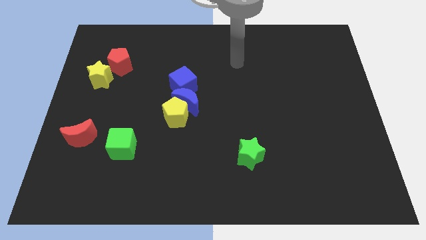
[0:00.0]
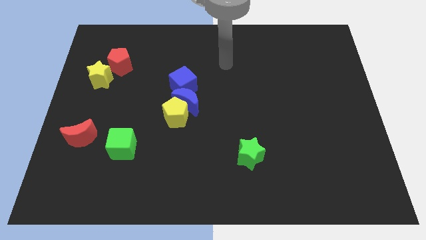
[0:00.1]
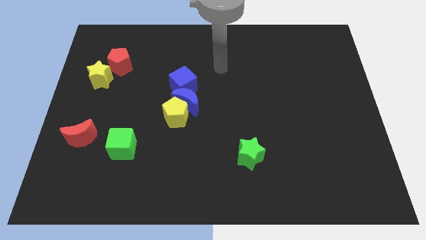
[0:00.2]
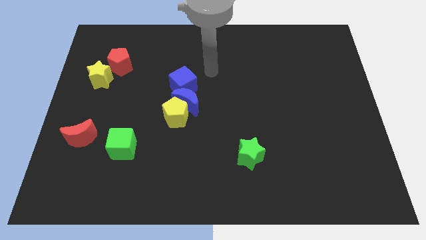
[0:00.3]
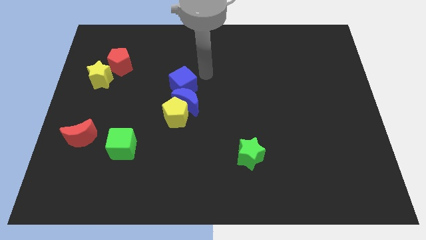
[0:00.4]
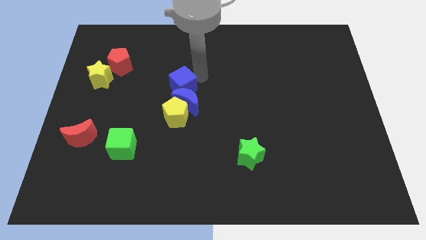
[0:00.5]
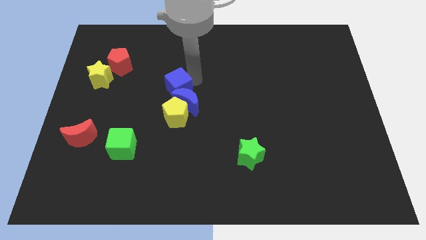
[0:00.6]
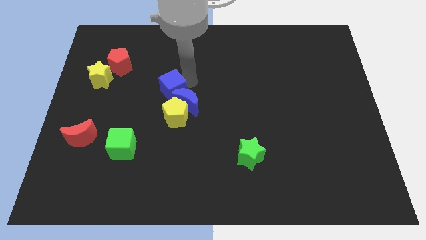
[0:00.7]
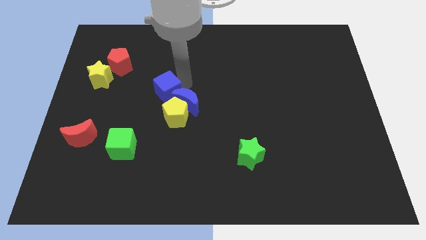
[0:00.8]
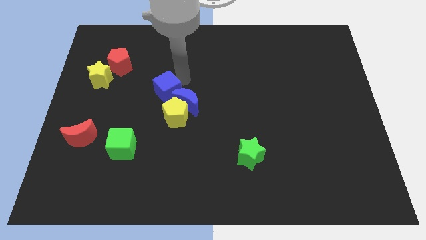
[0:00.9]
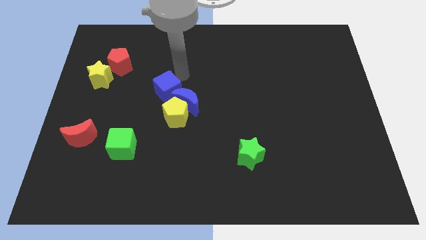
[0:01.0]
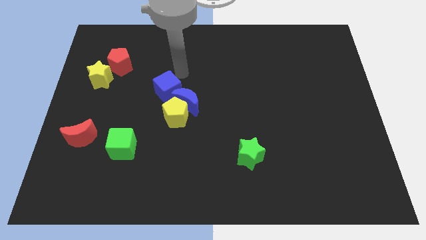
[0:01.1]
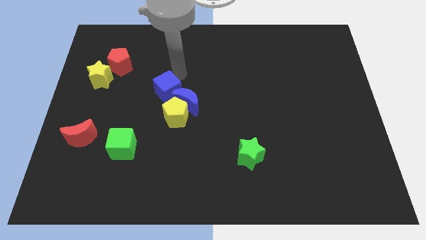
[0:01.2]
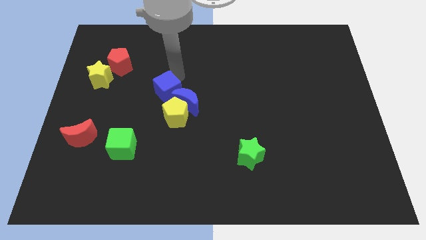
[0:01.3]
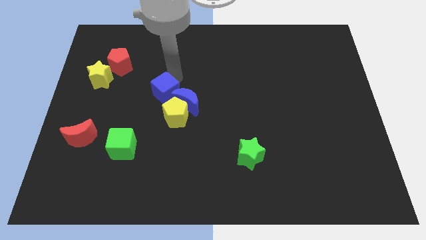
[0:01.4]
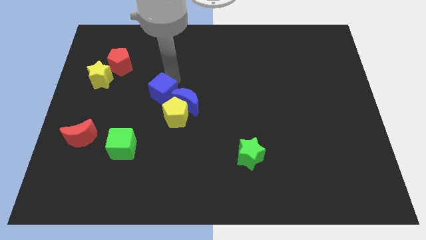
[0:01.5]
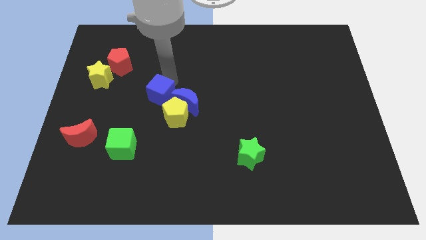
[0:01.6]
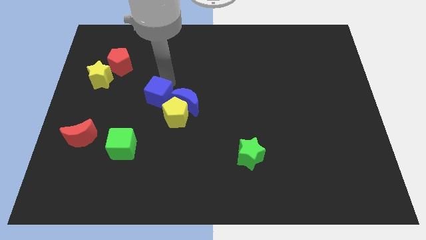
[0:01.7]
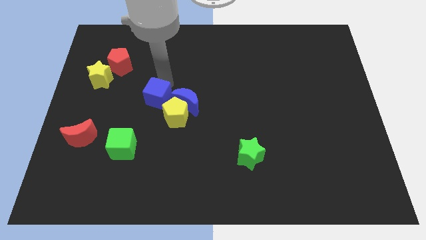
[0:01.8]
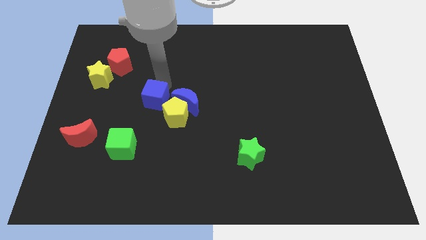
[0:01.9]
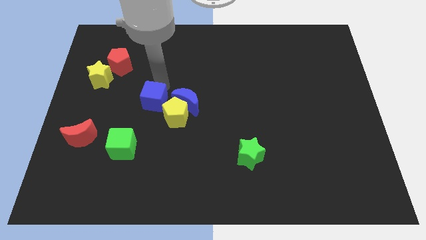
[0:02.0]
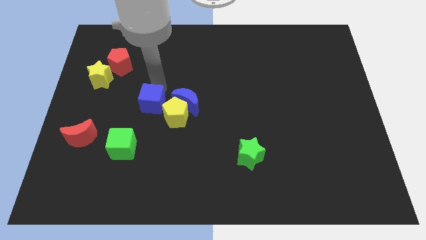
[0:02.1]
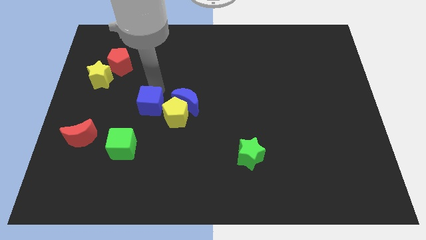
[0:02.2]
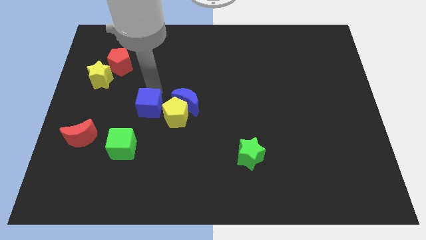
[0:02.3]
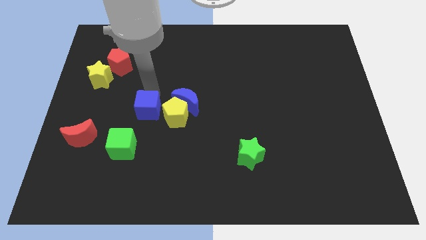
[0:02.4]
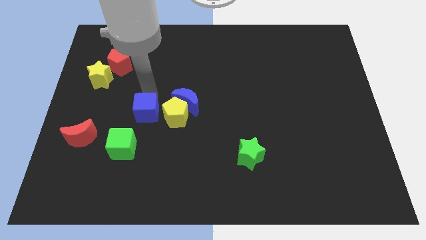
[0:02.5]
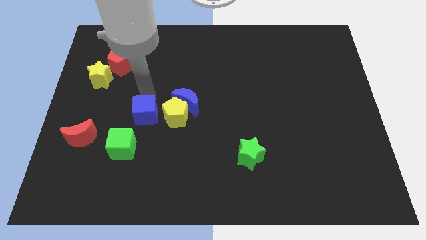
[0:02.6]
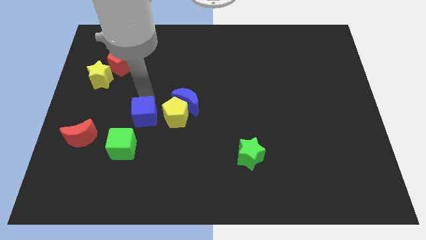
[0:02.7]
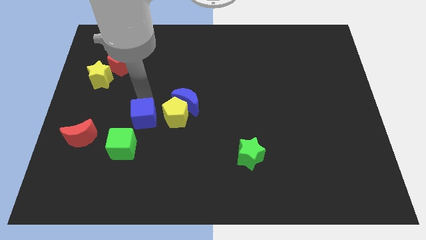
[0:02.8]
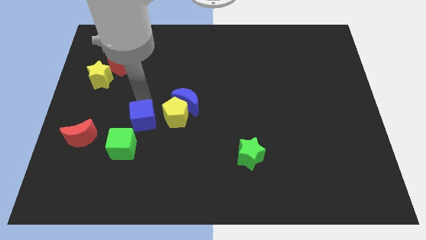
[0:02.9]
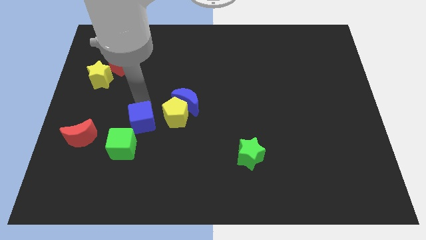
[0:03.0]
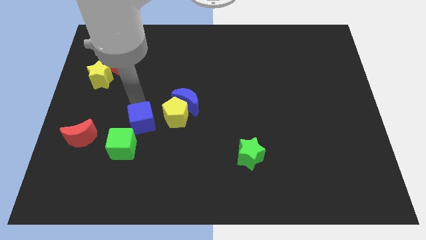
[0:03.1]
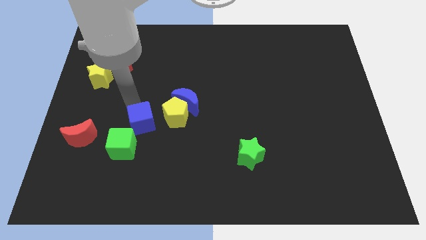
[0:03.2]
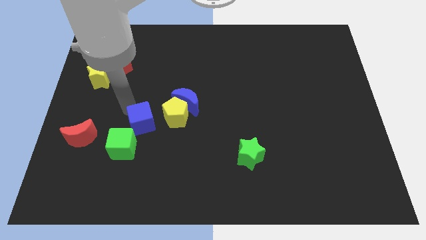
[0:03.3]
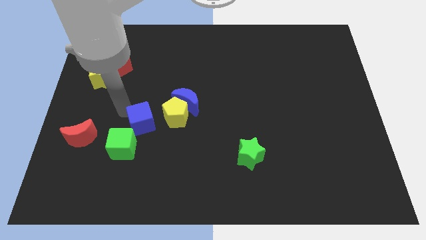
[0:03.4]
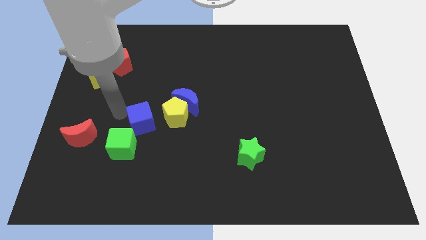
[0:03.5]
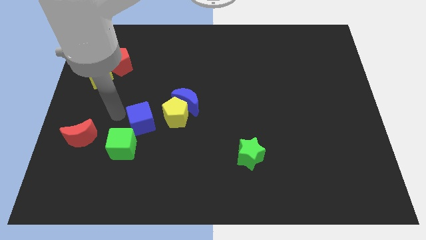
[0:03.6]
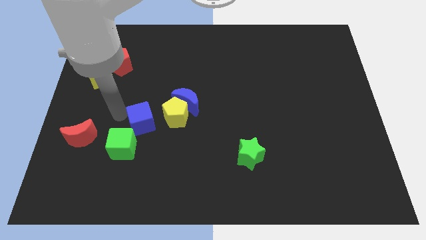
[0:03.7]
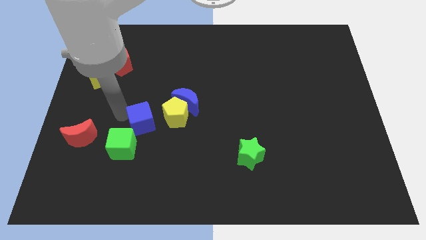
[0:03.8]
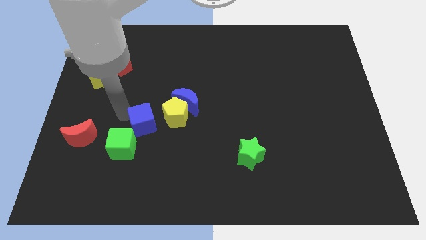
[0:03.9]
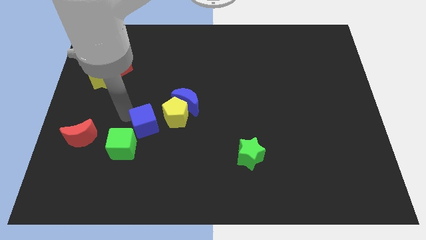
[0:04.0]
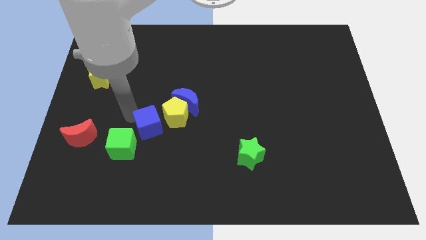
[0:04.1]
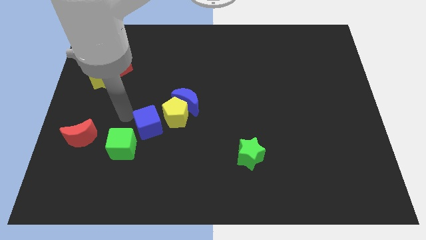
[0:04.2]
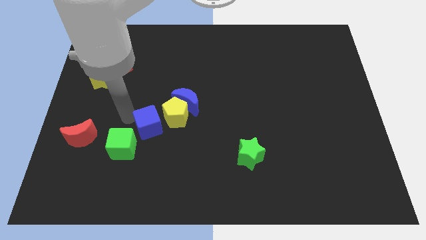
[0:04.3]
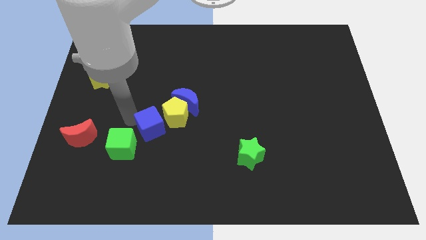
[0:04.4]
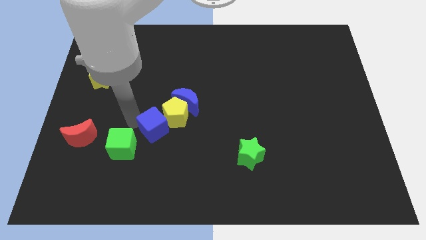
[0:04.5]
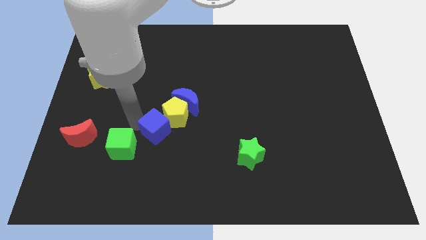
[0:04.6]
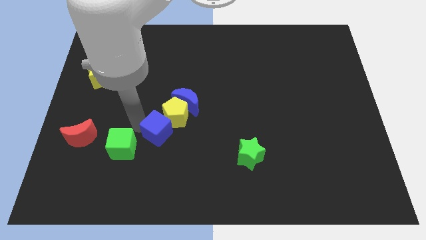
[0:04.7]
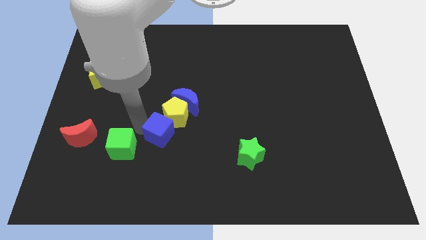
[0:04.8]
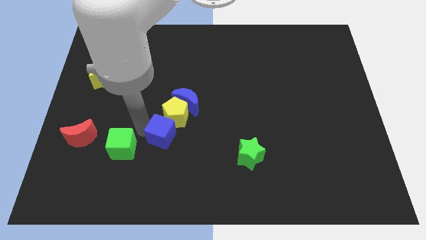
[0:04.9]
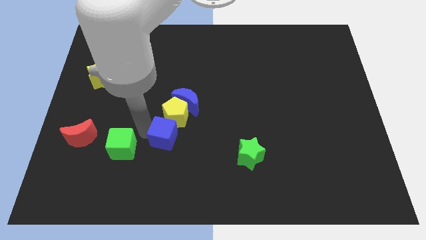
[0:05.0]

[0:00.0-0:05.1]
slide the blue cube to the bottom side of the blue moon

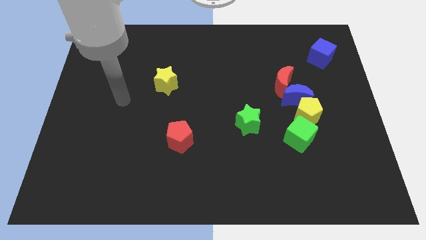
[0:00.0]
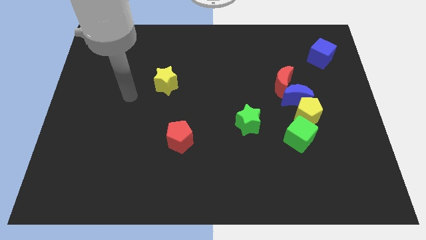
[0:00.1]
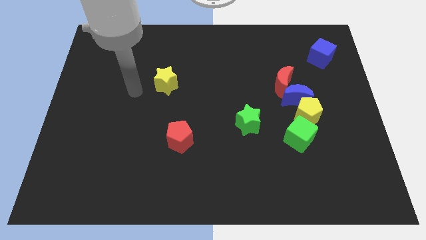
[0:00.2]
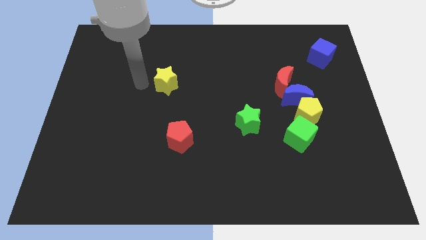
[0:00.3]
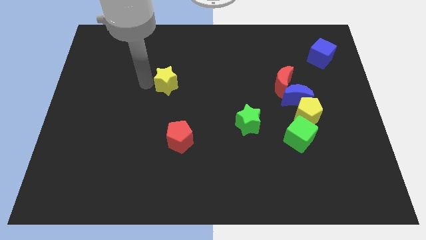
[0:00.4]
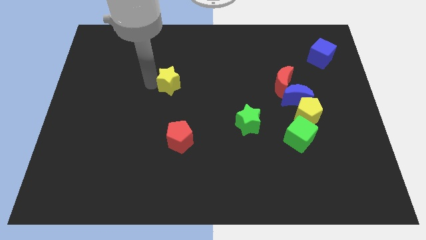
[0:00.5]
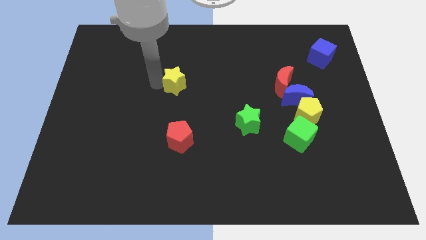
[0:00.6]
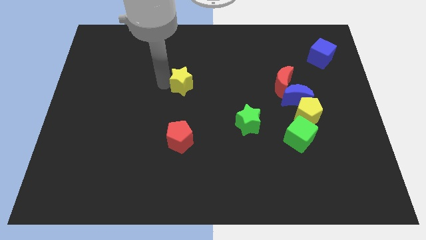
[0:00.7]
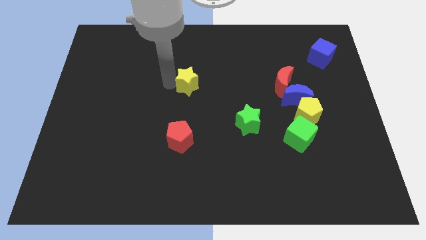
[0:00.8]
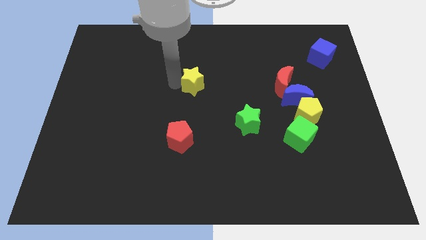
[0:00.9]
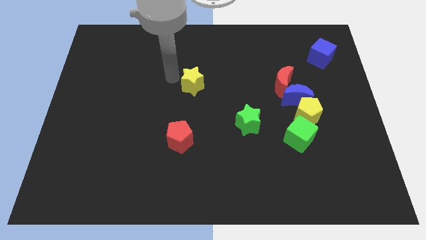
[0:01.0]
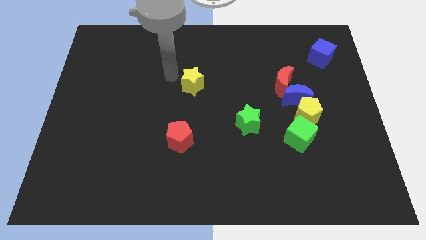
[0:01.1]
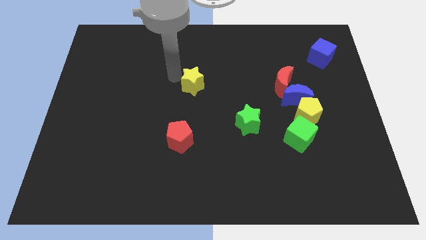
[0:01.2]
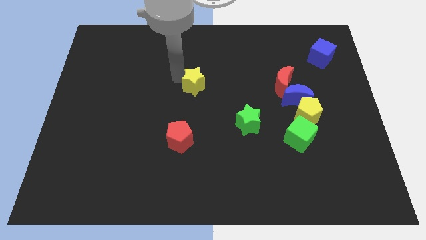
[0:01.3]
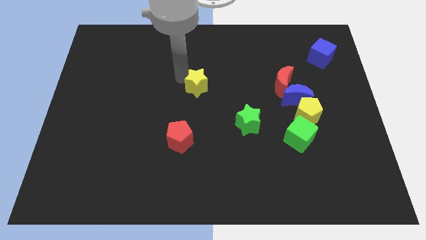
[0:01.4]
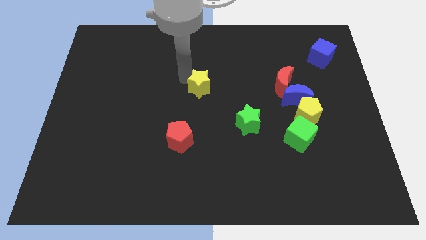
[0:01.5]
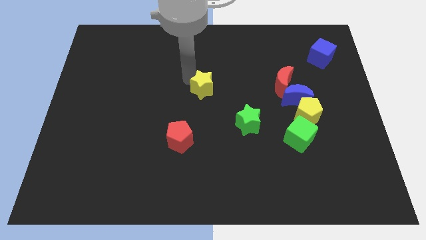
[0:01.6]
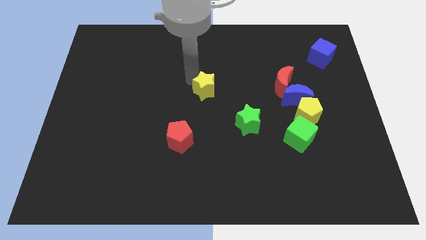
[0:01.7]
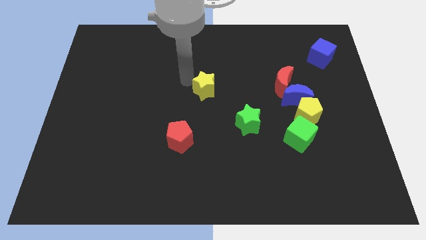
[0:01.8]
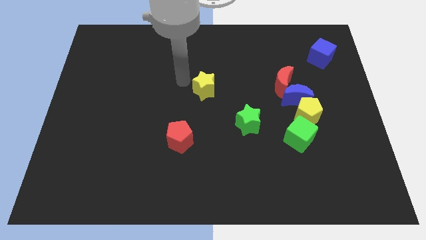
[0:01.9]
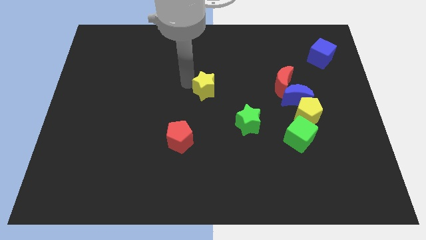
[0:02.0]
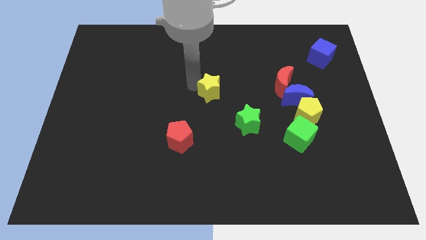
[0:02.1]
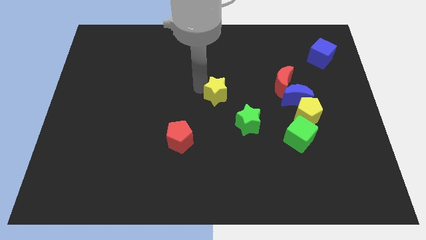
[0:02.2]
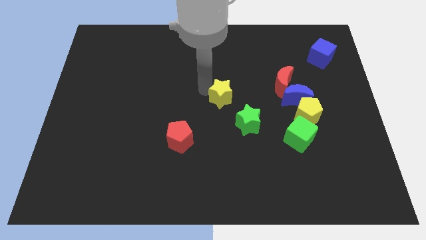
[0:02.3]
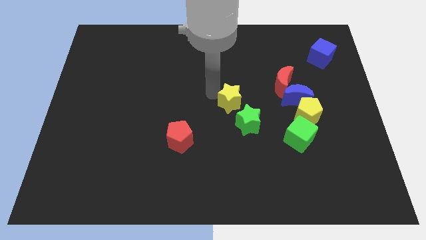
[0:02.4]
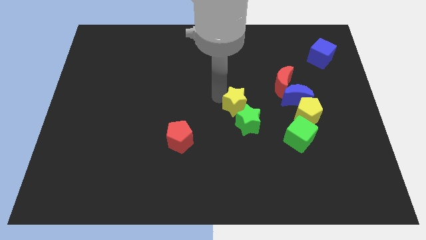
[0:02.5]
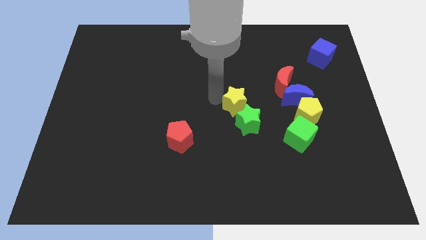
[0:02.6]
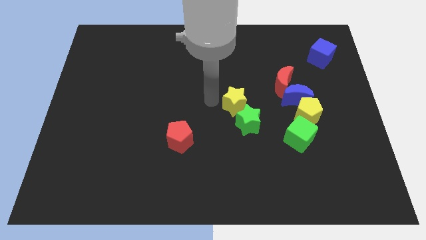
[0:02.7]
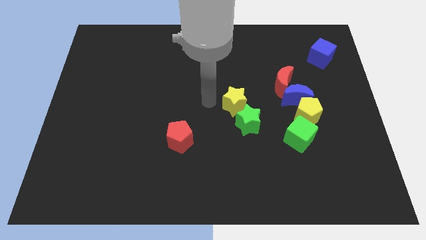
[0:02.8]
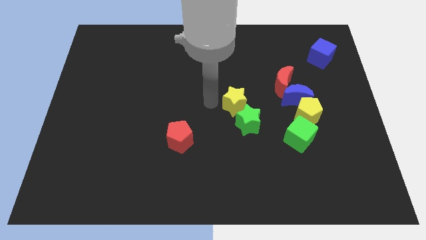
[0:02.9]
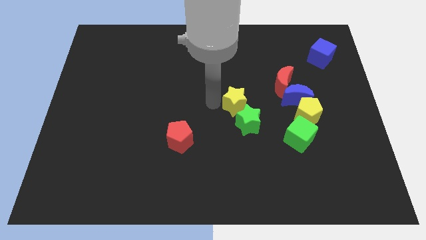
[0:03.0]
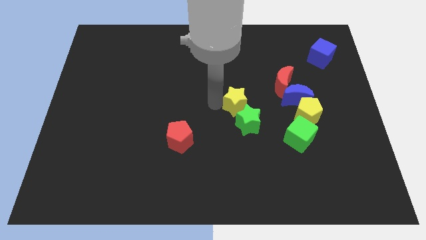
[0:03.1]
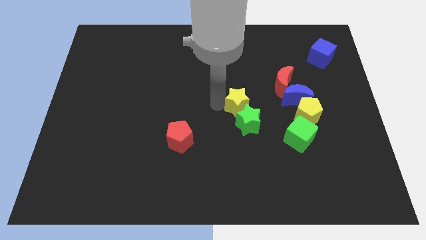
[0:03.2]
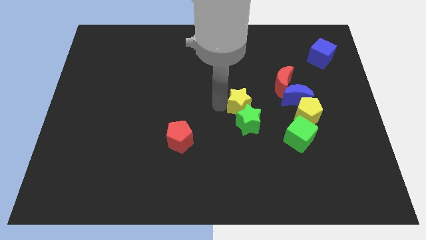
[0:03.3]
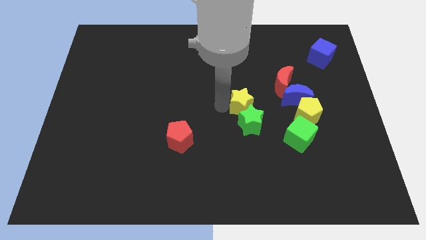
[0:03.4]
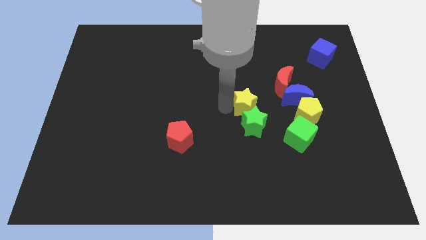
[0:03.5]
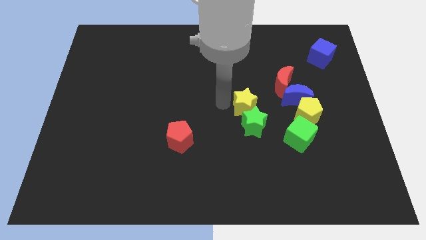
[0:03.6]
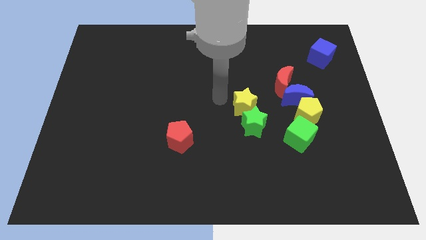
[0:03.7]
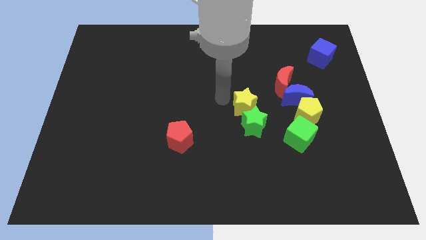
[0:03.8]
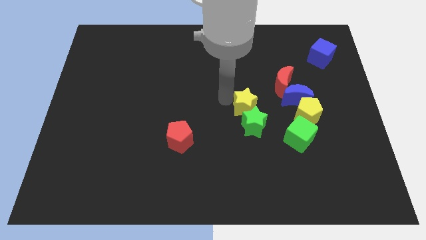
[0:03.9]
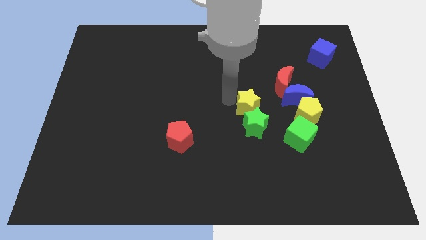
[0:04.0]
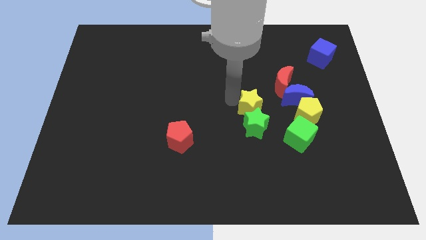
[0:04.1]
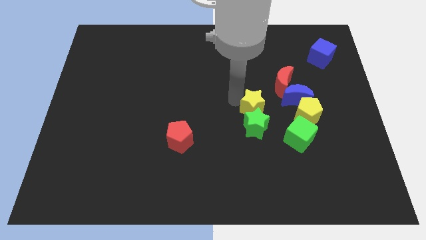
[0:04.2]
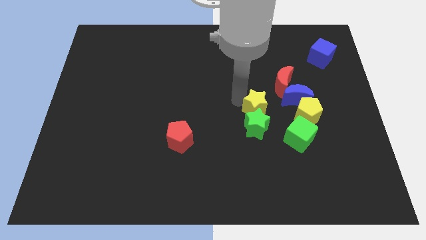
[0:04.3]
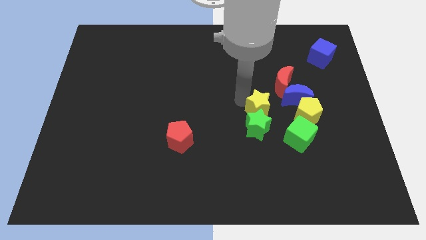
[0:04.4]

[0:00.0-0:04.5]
push the yellow star diagonally down and to the left of the blue moon
